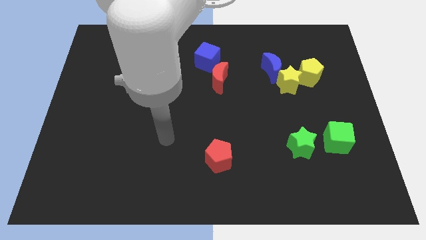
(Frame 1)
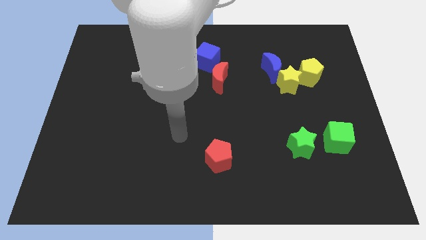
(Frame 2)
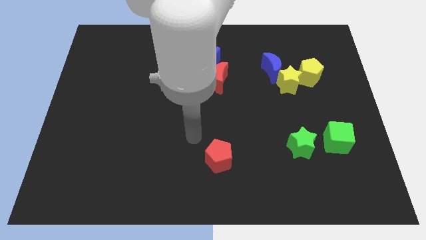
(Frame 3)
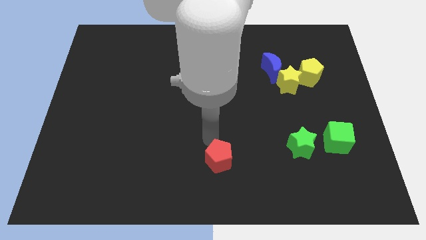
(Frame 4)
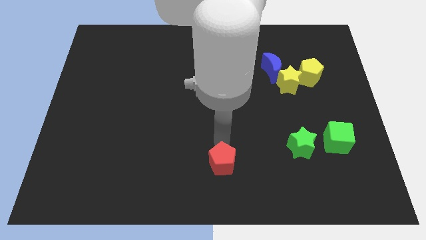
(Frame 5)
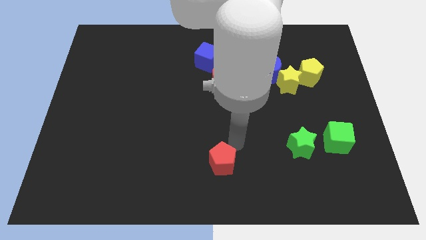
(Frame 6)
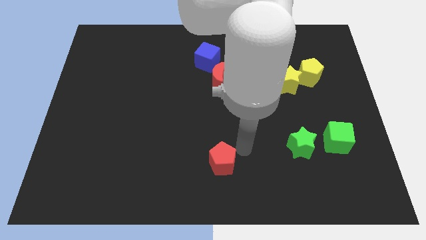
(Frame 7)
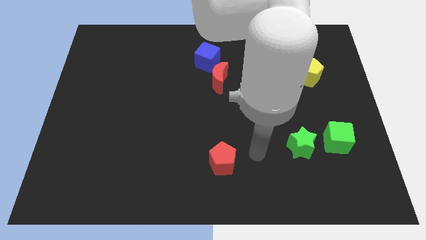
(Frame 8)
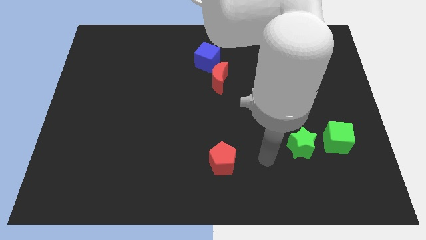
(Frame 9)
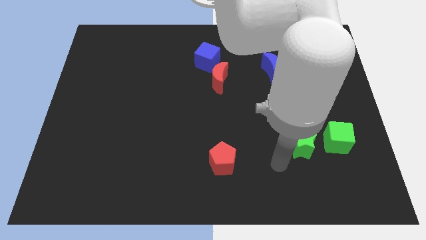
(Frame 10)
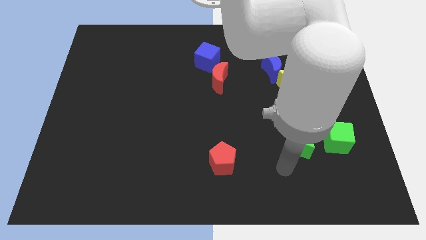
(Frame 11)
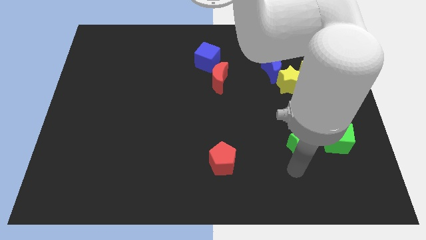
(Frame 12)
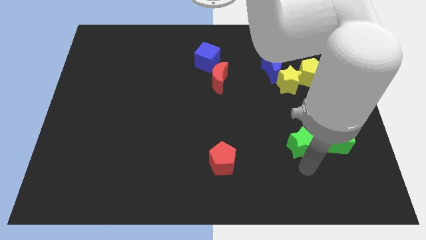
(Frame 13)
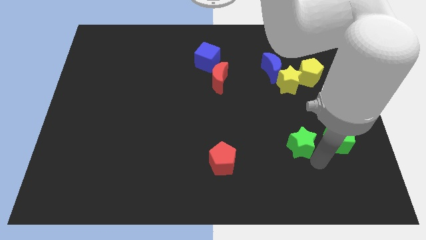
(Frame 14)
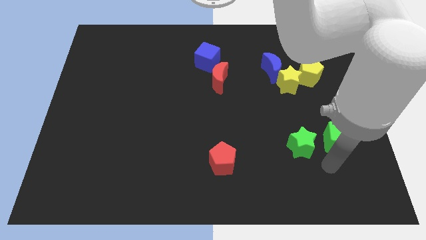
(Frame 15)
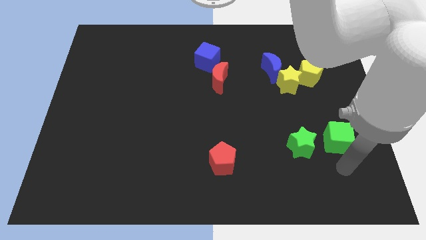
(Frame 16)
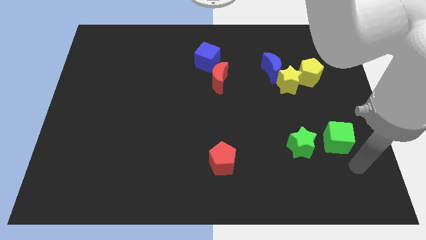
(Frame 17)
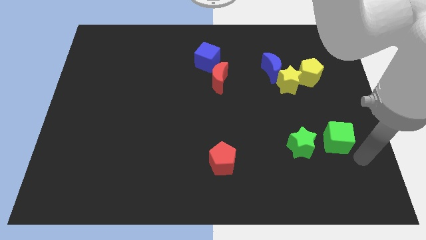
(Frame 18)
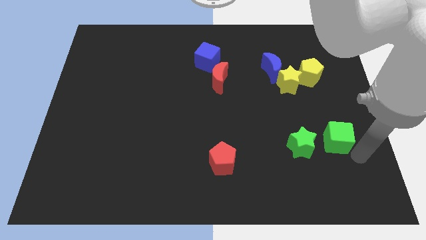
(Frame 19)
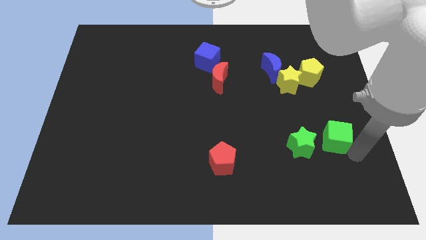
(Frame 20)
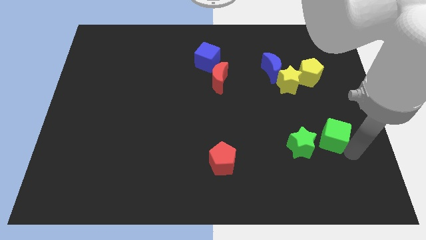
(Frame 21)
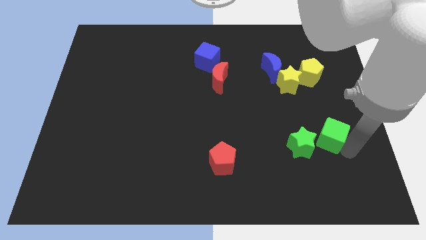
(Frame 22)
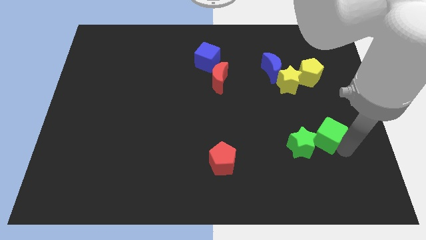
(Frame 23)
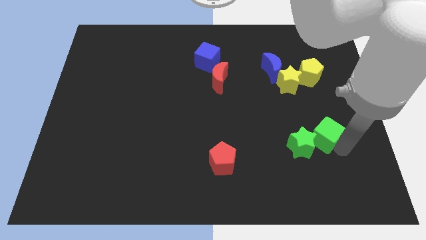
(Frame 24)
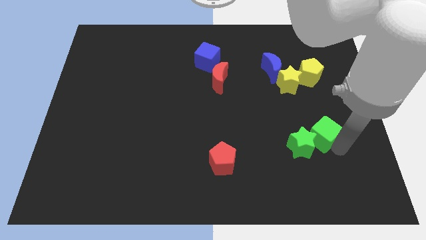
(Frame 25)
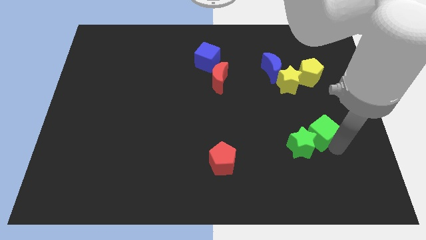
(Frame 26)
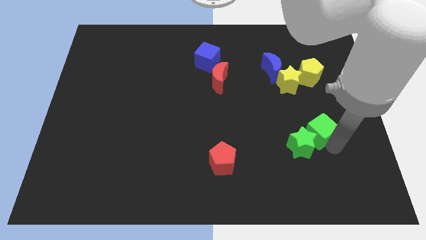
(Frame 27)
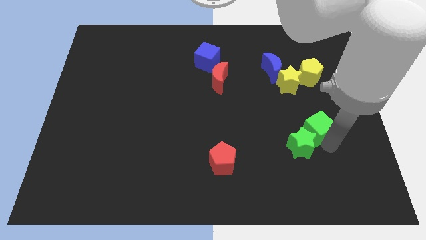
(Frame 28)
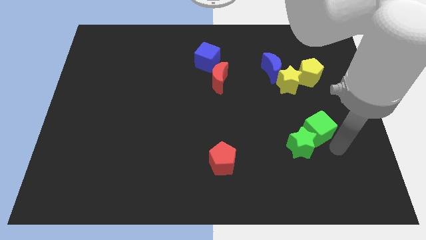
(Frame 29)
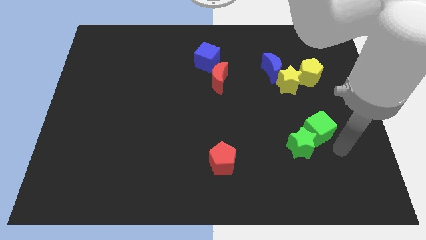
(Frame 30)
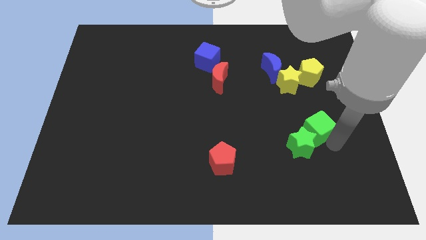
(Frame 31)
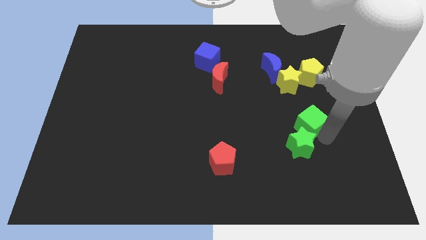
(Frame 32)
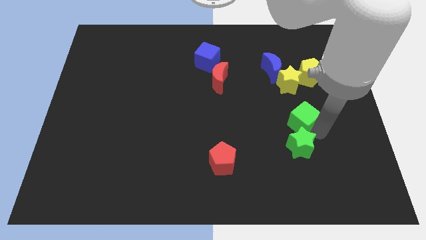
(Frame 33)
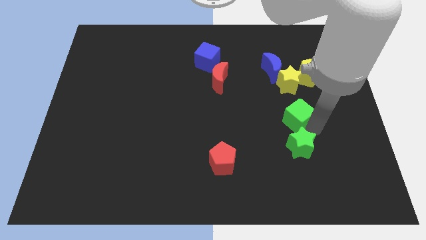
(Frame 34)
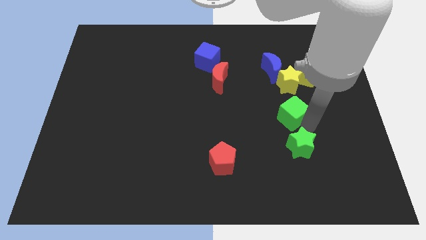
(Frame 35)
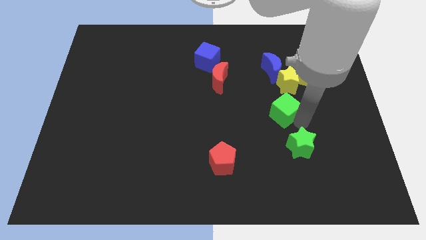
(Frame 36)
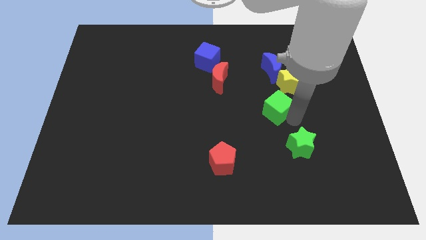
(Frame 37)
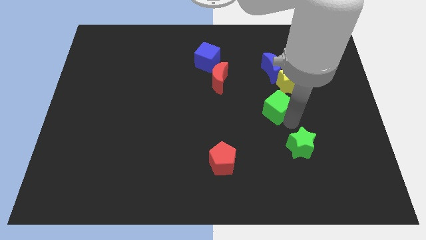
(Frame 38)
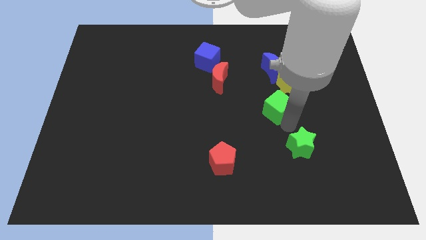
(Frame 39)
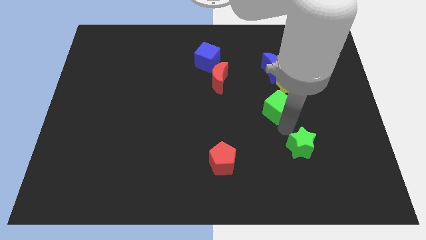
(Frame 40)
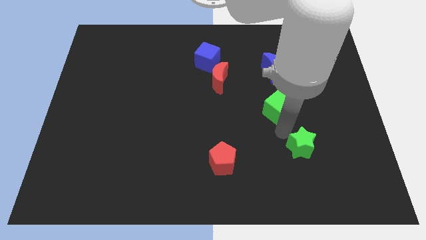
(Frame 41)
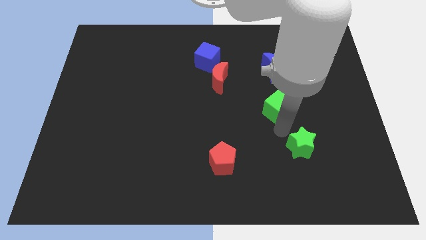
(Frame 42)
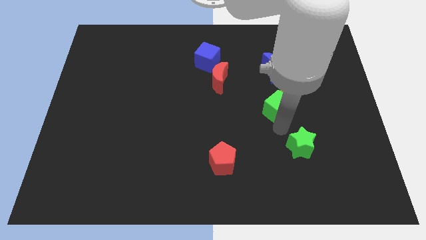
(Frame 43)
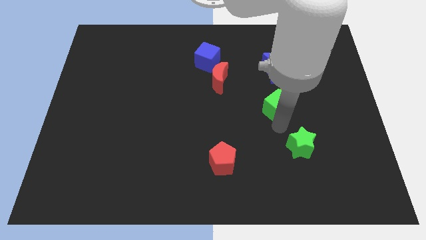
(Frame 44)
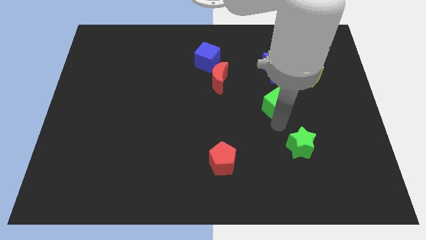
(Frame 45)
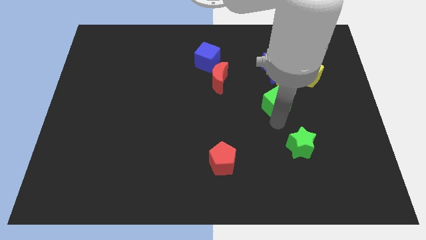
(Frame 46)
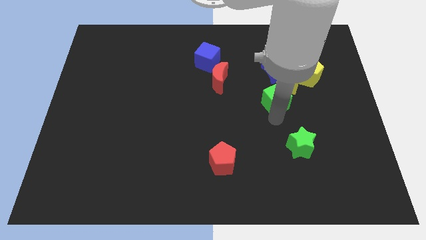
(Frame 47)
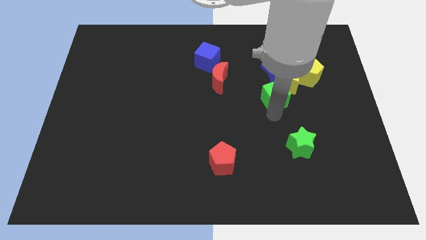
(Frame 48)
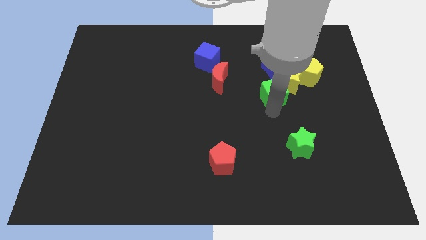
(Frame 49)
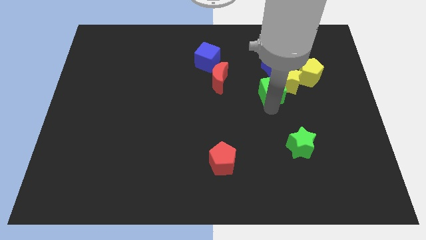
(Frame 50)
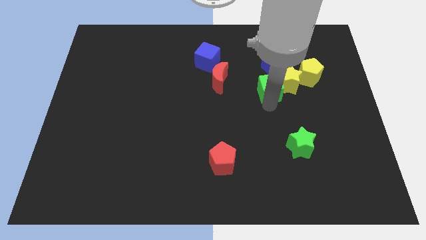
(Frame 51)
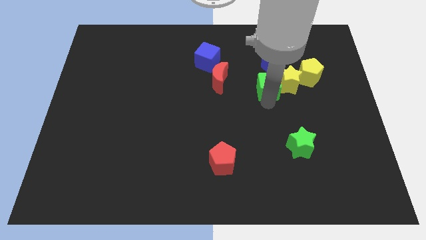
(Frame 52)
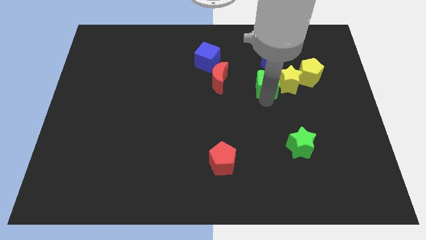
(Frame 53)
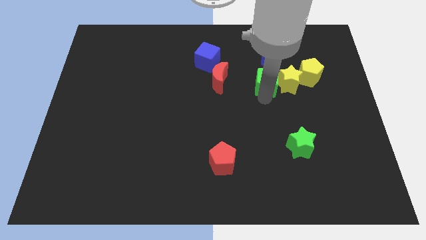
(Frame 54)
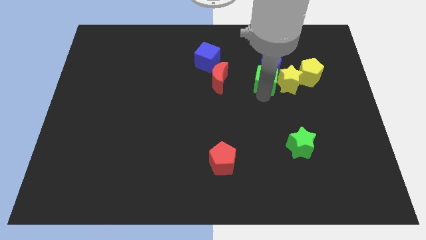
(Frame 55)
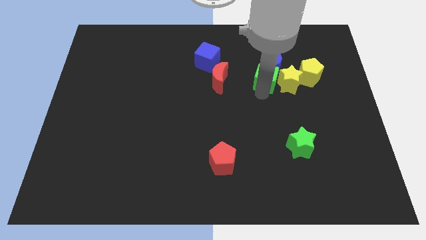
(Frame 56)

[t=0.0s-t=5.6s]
move the green cube towards the blue moon

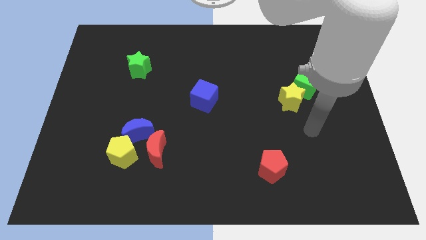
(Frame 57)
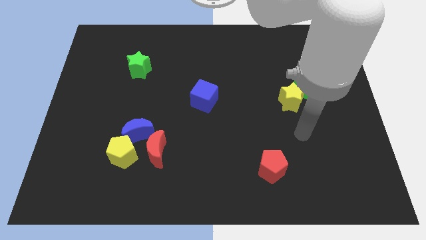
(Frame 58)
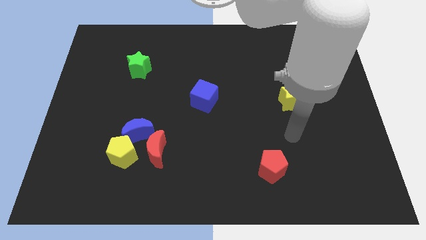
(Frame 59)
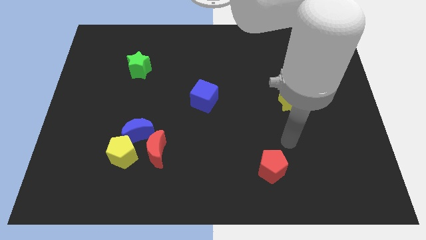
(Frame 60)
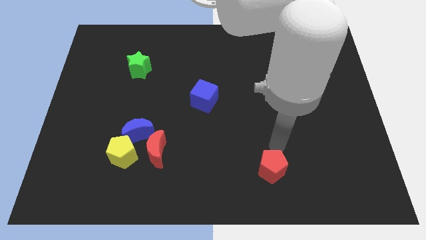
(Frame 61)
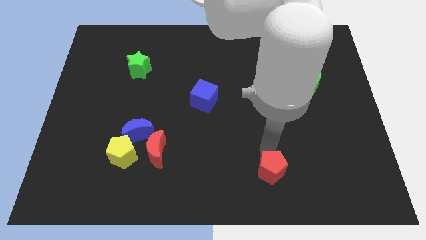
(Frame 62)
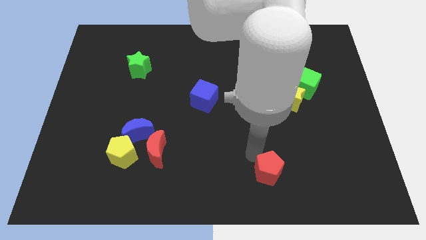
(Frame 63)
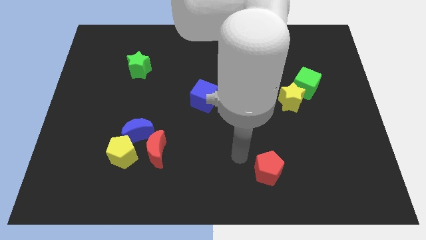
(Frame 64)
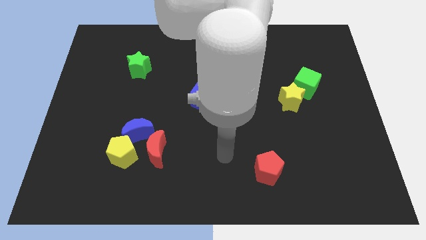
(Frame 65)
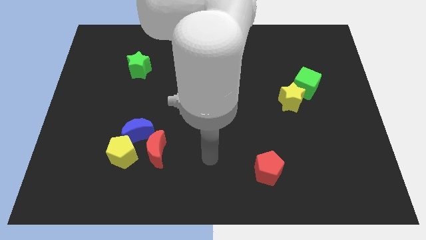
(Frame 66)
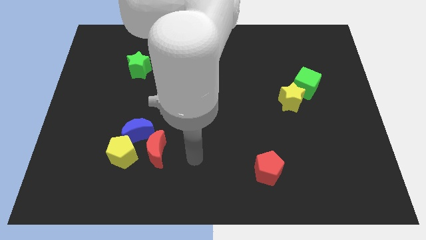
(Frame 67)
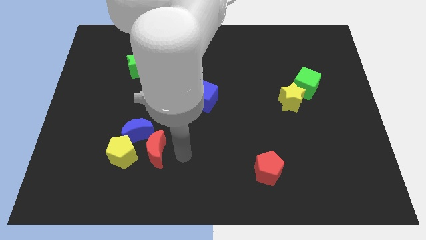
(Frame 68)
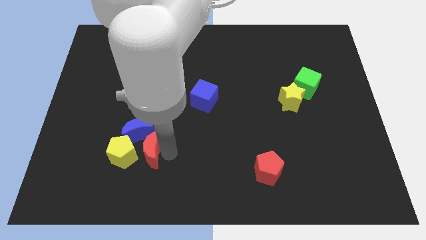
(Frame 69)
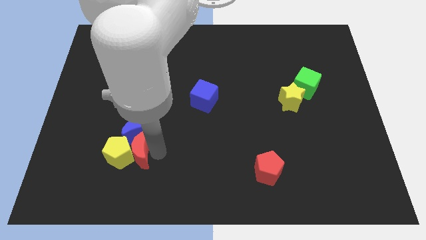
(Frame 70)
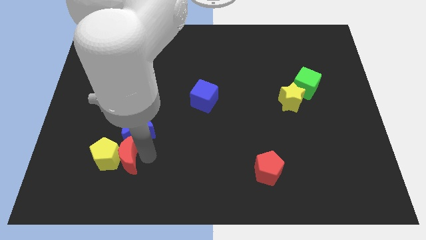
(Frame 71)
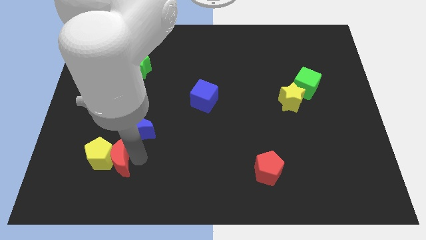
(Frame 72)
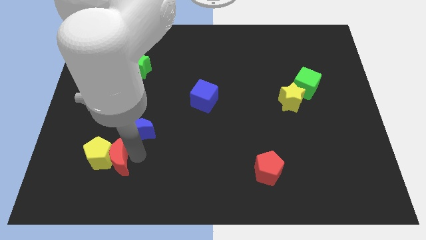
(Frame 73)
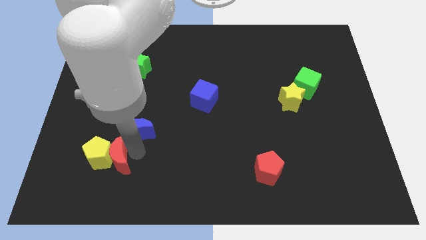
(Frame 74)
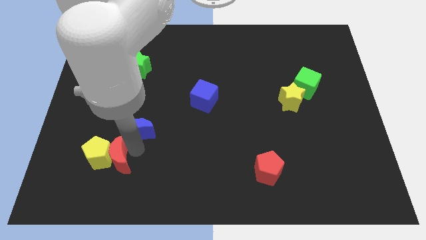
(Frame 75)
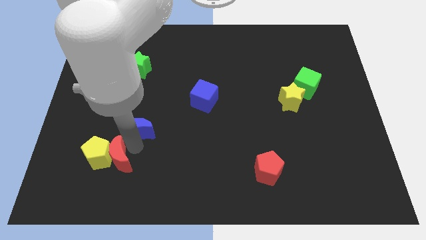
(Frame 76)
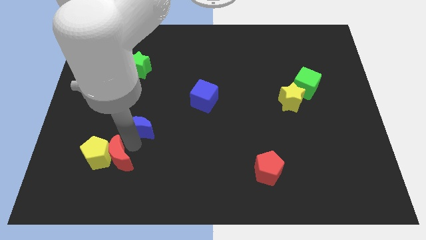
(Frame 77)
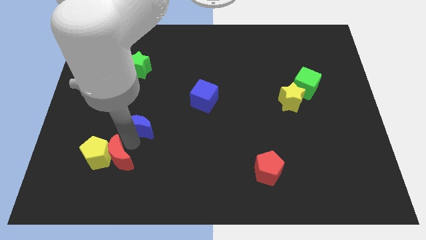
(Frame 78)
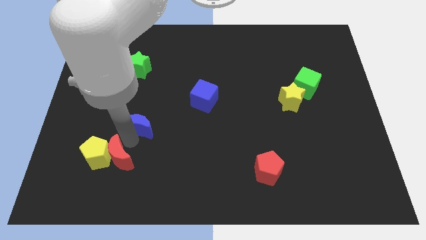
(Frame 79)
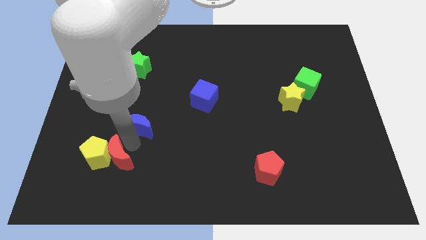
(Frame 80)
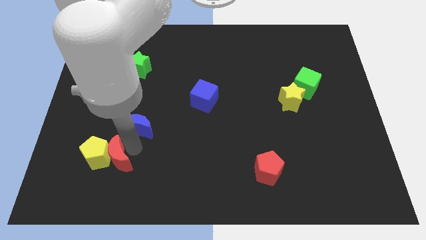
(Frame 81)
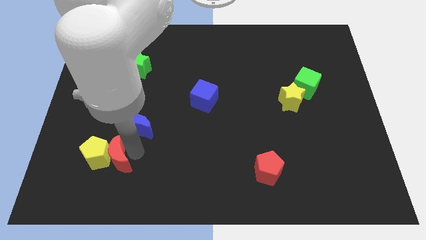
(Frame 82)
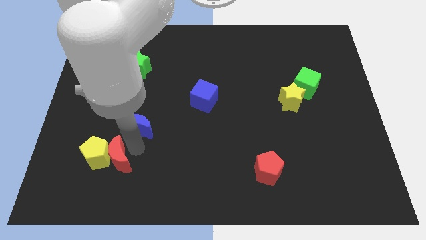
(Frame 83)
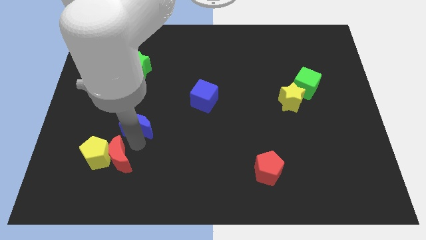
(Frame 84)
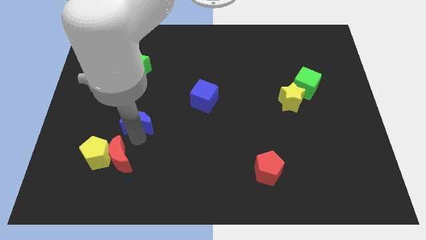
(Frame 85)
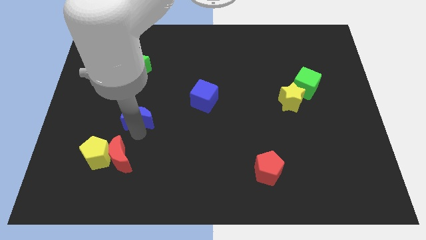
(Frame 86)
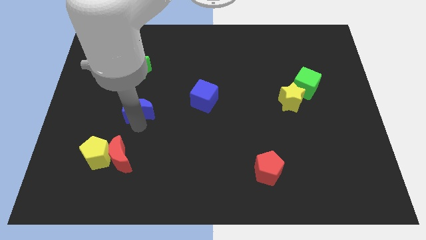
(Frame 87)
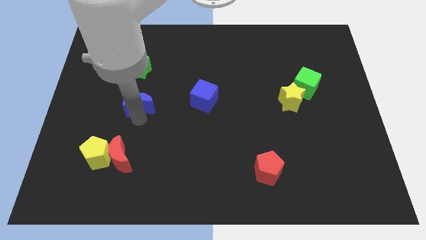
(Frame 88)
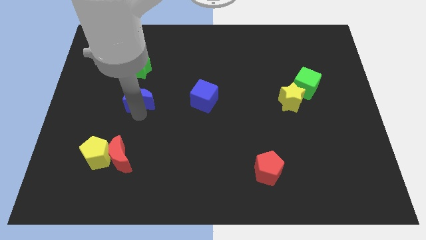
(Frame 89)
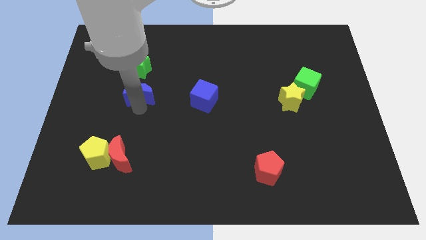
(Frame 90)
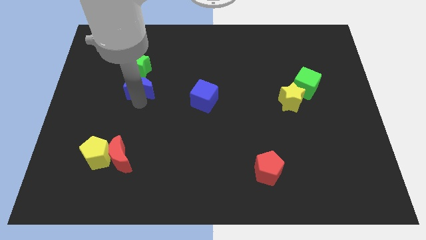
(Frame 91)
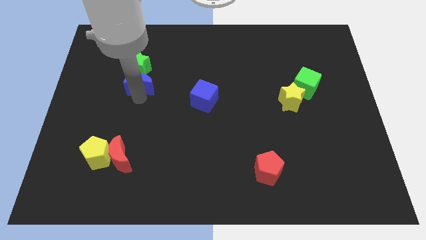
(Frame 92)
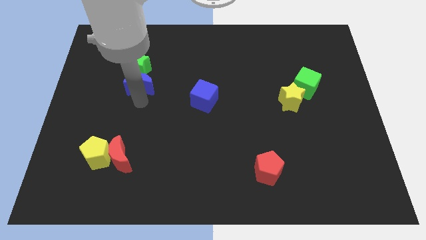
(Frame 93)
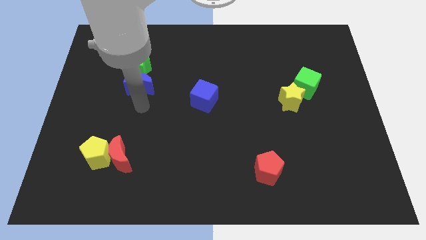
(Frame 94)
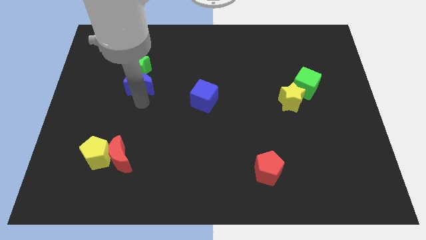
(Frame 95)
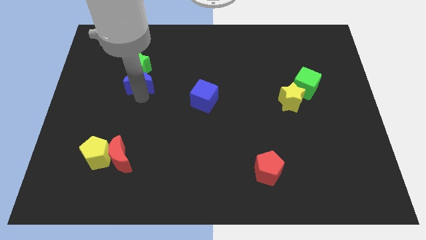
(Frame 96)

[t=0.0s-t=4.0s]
push the blue moon next to the green star
